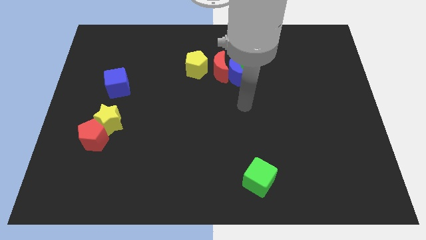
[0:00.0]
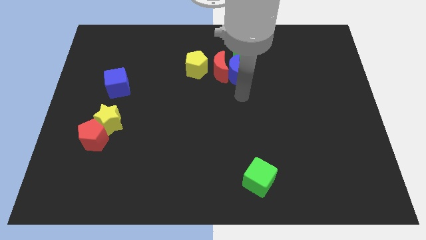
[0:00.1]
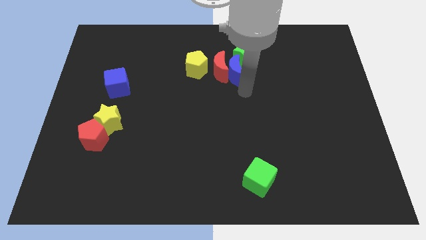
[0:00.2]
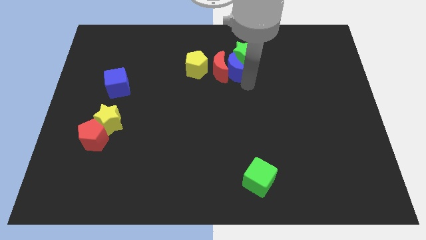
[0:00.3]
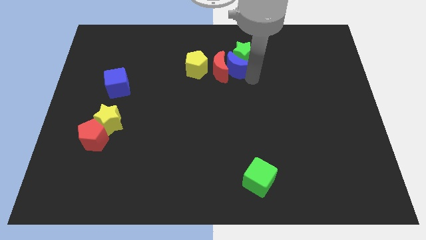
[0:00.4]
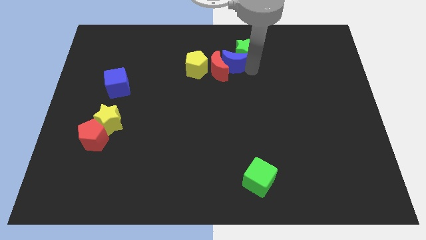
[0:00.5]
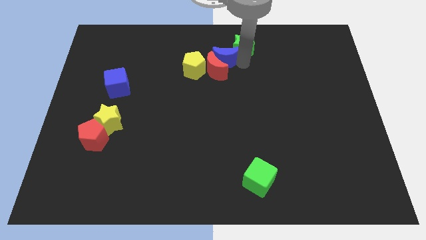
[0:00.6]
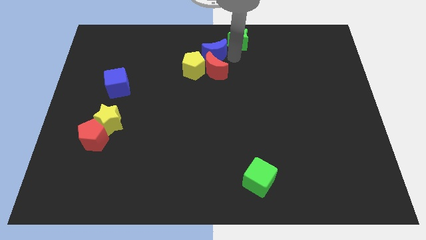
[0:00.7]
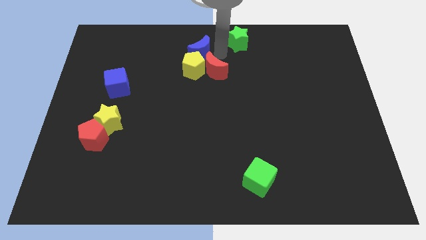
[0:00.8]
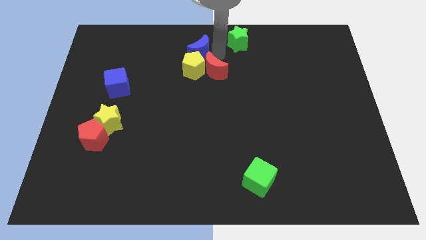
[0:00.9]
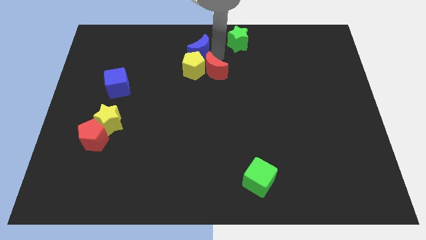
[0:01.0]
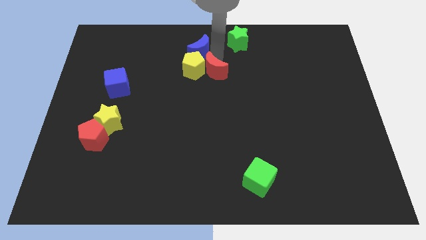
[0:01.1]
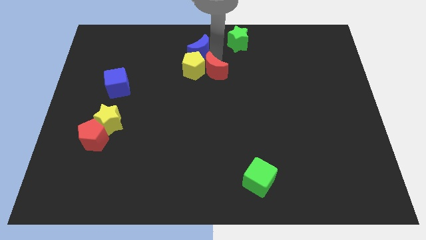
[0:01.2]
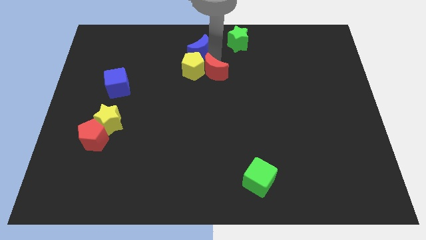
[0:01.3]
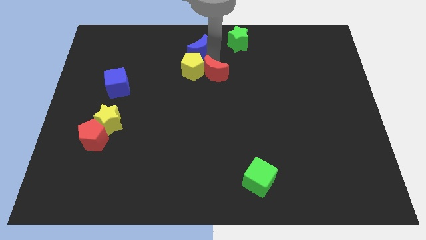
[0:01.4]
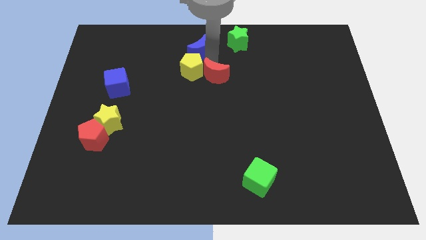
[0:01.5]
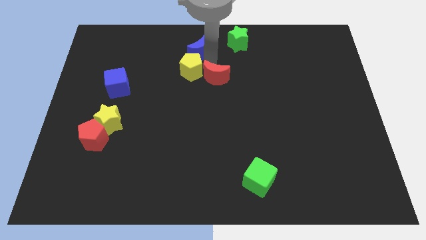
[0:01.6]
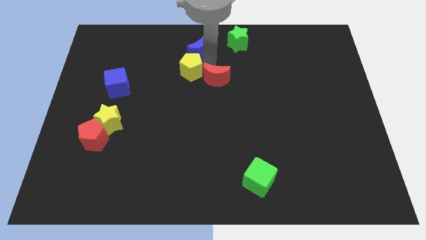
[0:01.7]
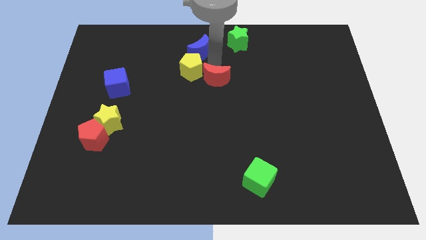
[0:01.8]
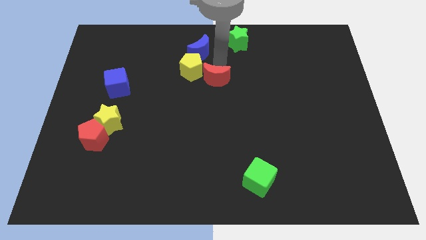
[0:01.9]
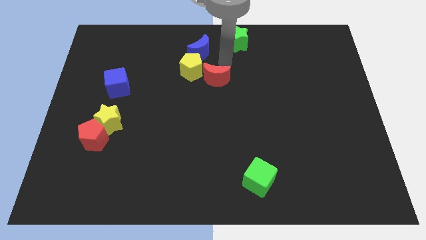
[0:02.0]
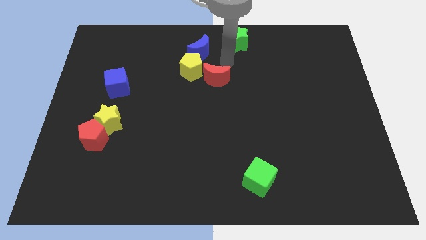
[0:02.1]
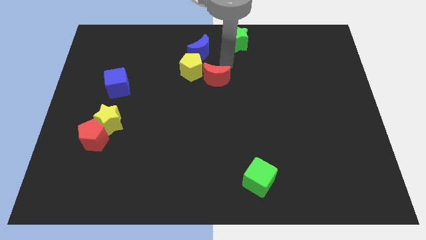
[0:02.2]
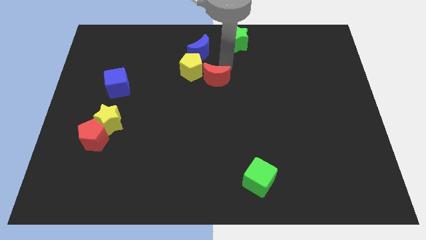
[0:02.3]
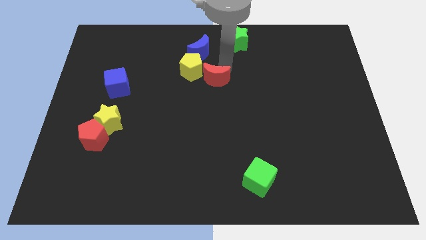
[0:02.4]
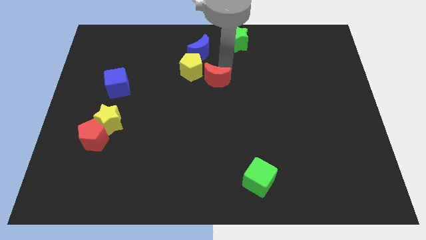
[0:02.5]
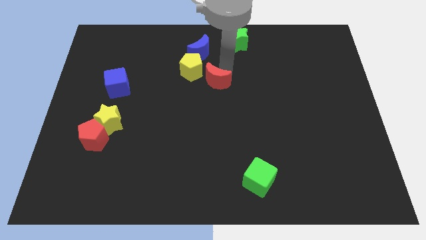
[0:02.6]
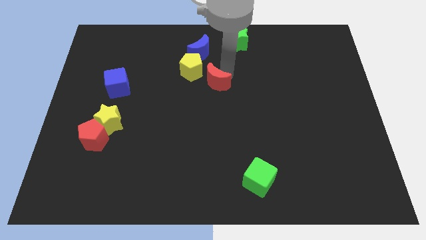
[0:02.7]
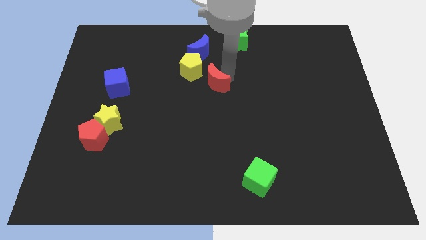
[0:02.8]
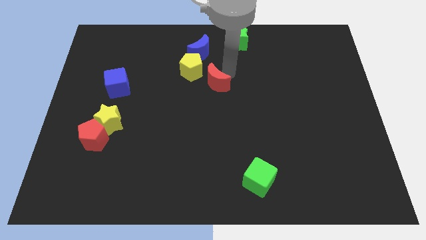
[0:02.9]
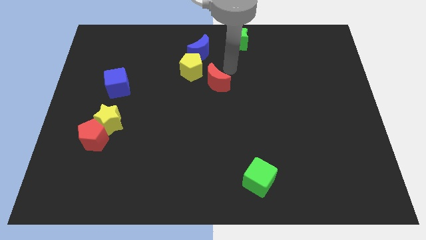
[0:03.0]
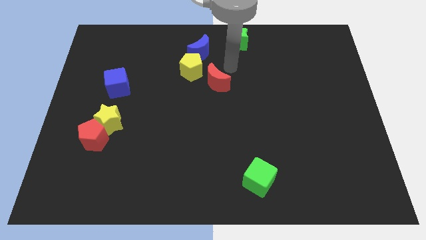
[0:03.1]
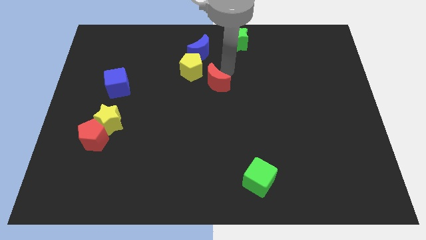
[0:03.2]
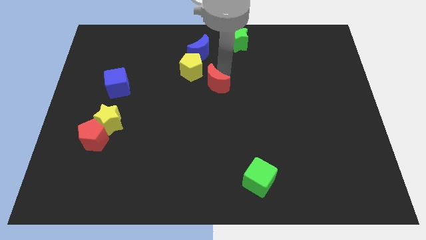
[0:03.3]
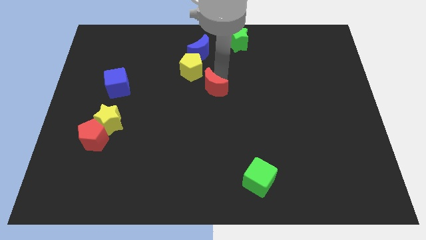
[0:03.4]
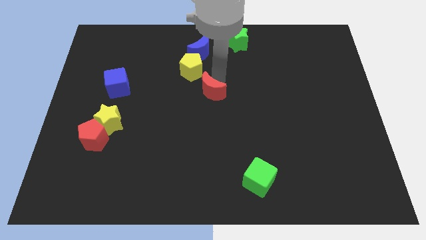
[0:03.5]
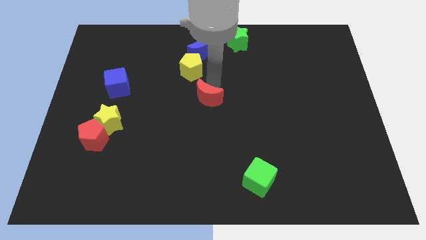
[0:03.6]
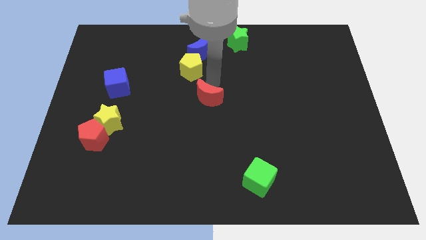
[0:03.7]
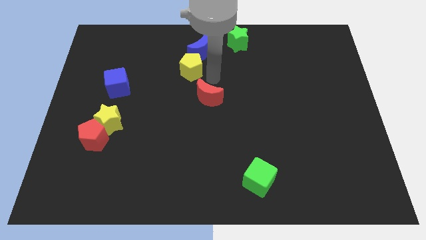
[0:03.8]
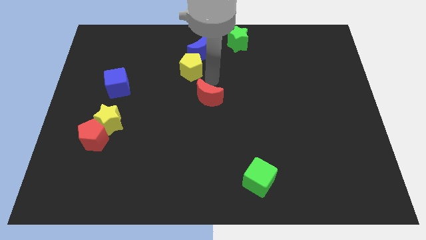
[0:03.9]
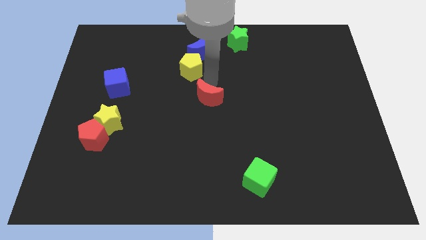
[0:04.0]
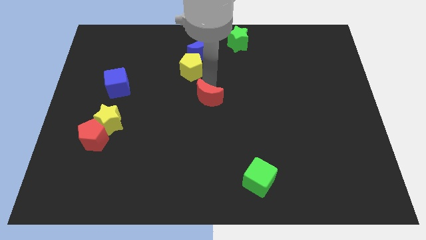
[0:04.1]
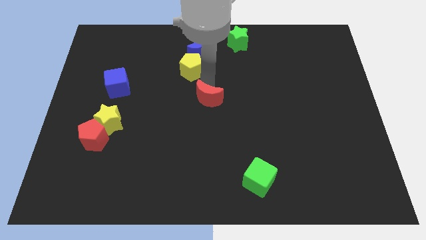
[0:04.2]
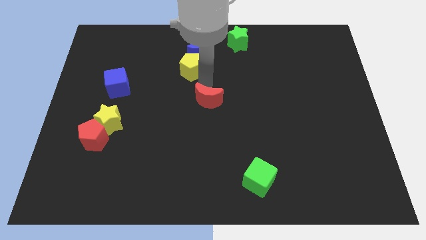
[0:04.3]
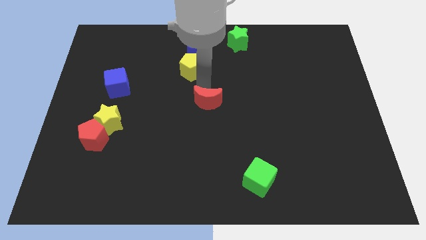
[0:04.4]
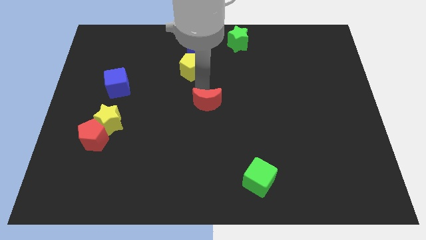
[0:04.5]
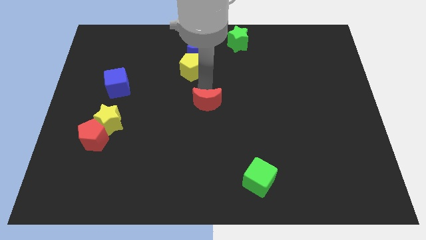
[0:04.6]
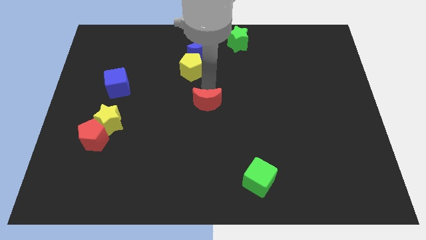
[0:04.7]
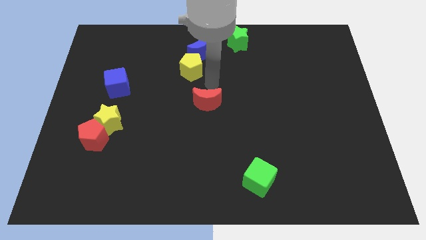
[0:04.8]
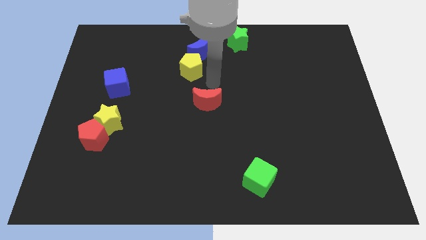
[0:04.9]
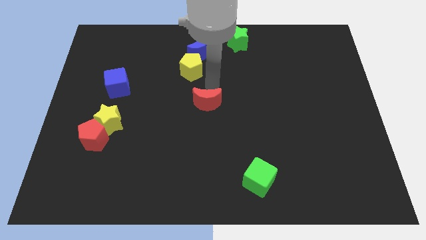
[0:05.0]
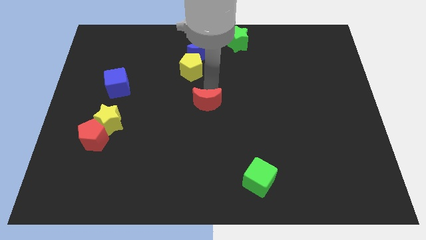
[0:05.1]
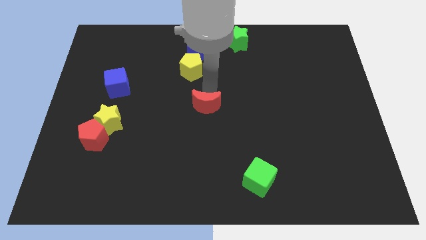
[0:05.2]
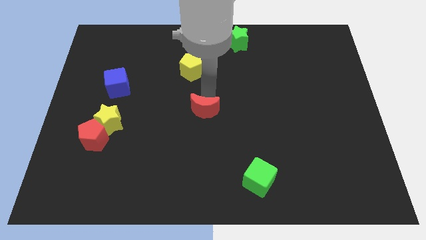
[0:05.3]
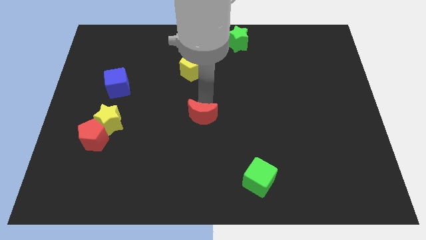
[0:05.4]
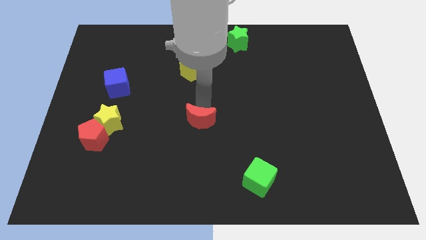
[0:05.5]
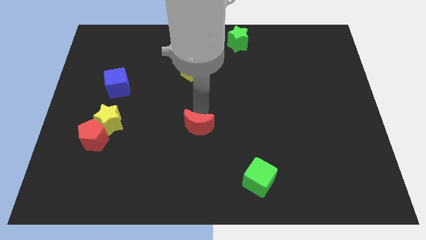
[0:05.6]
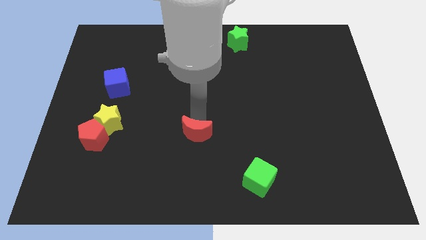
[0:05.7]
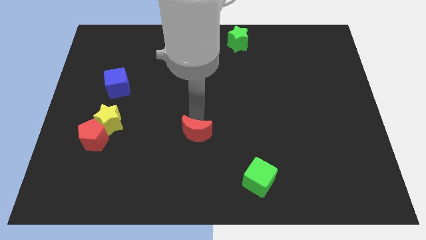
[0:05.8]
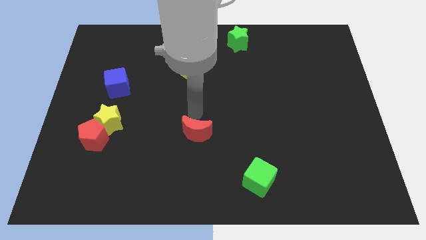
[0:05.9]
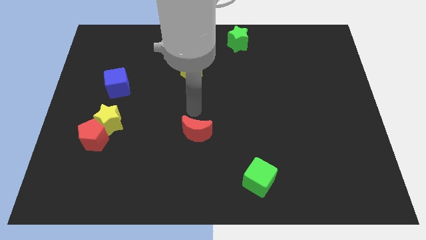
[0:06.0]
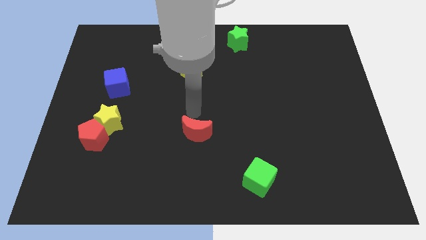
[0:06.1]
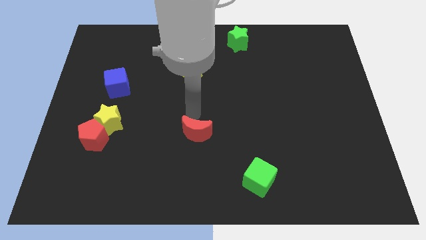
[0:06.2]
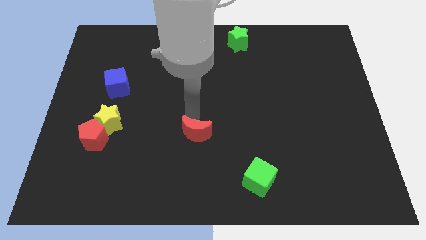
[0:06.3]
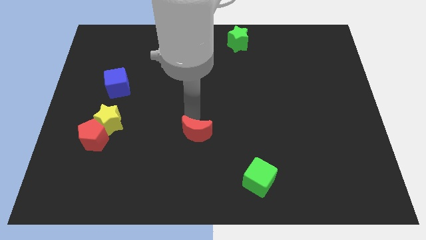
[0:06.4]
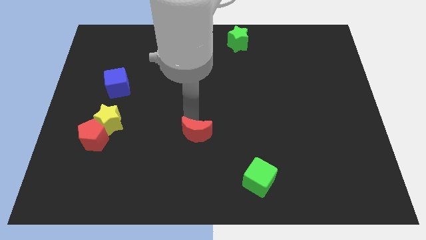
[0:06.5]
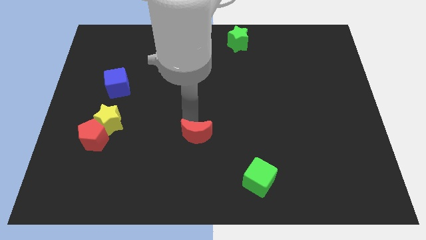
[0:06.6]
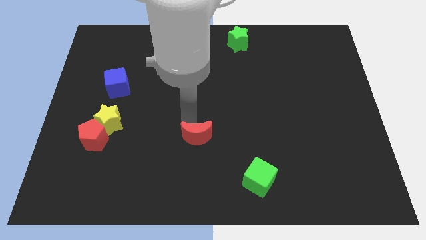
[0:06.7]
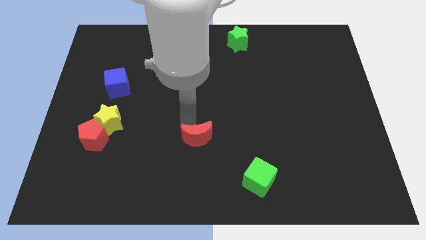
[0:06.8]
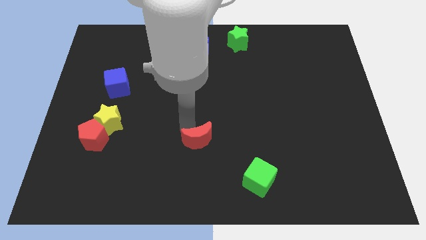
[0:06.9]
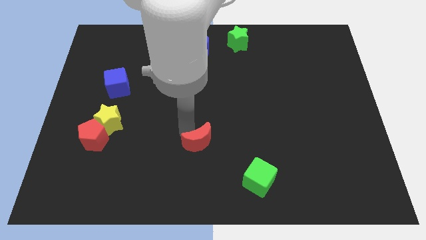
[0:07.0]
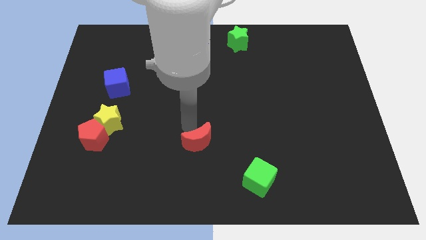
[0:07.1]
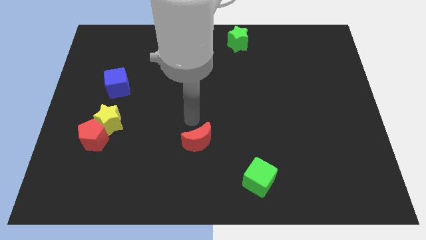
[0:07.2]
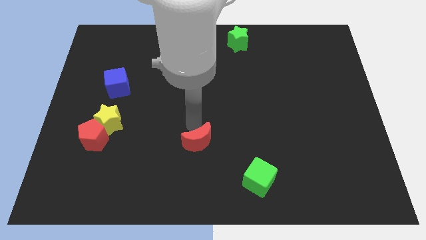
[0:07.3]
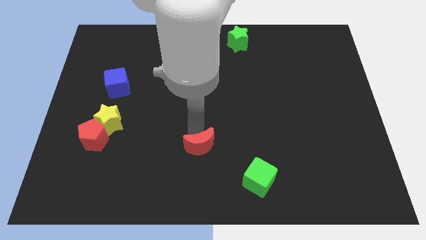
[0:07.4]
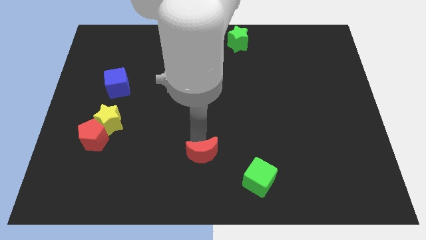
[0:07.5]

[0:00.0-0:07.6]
put the red moon to the bottom side
